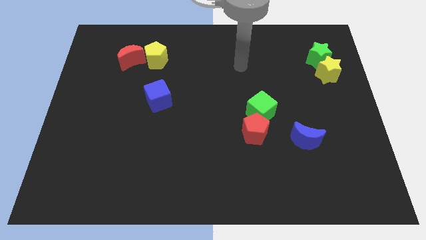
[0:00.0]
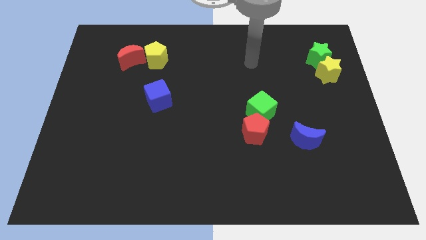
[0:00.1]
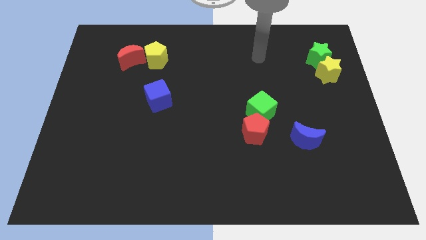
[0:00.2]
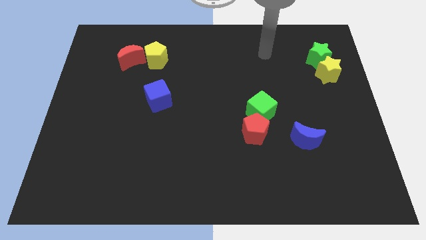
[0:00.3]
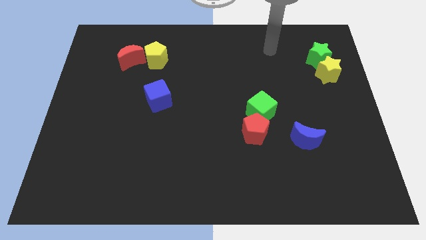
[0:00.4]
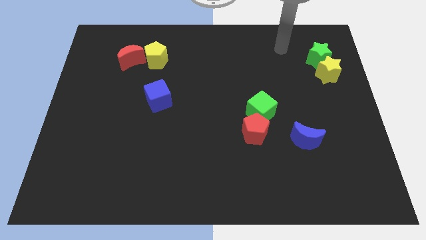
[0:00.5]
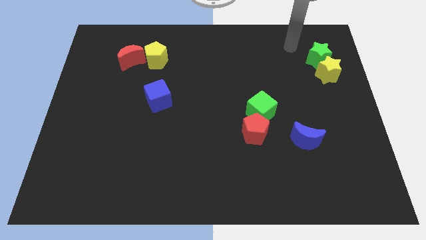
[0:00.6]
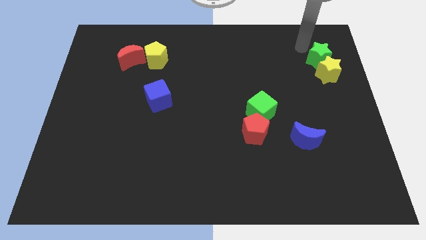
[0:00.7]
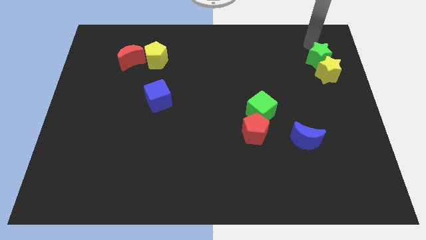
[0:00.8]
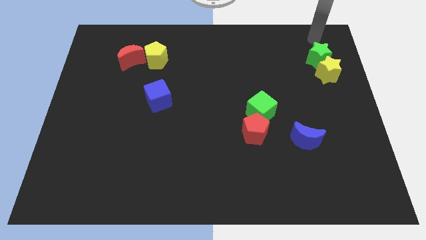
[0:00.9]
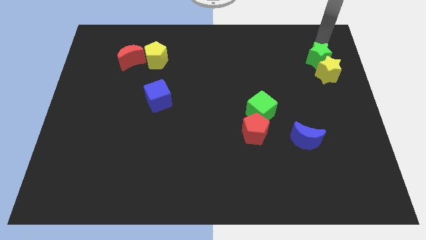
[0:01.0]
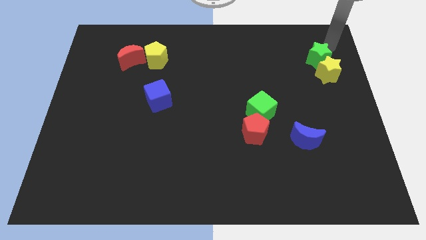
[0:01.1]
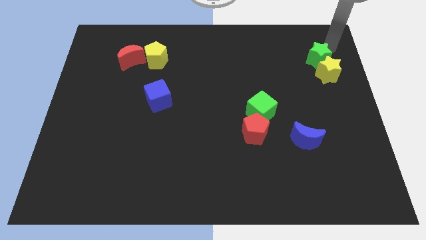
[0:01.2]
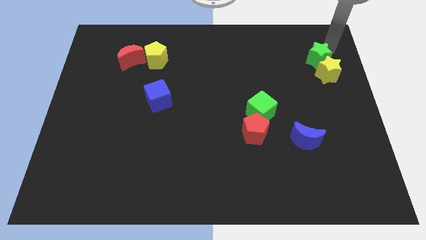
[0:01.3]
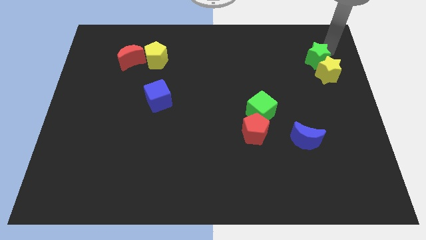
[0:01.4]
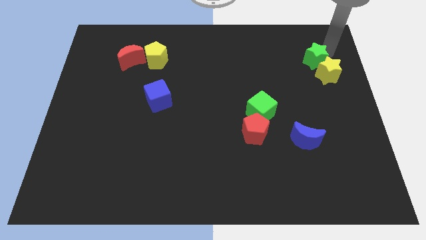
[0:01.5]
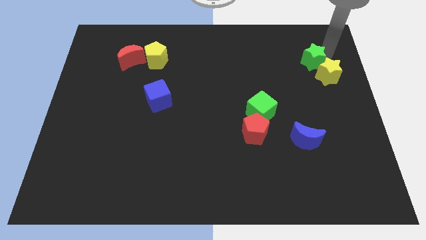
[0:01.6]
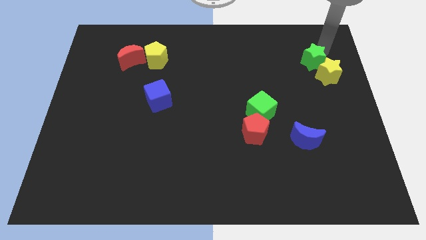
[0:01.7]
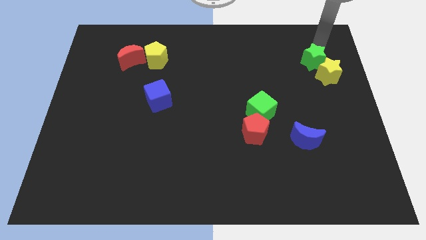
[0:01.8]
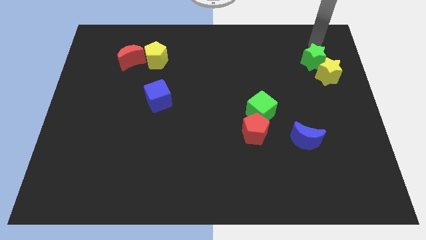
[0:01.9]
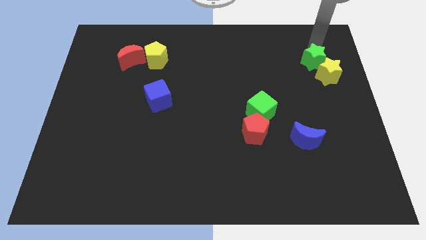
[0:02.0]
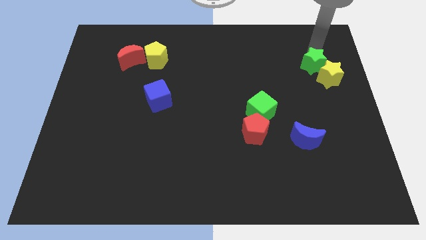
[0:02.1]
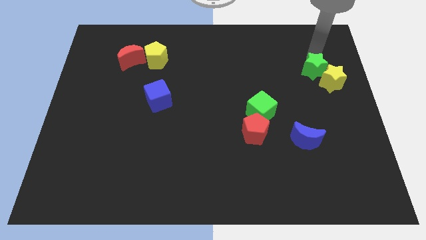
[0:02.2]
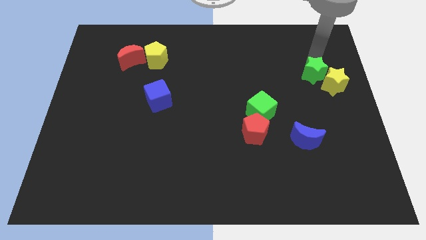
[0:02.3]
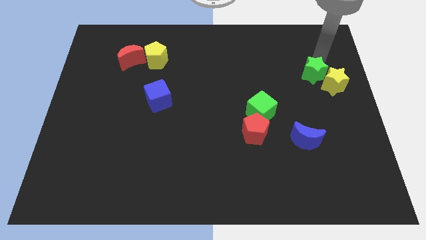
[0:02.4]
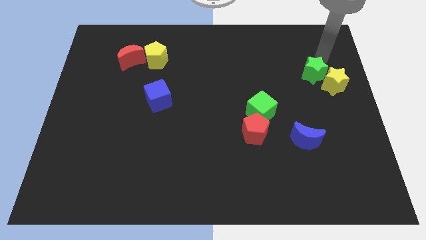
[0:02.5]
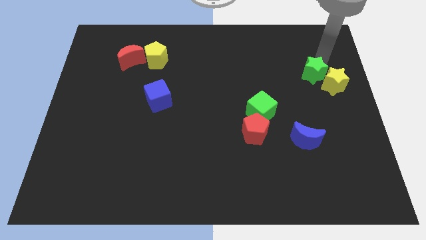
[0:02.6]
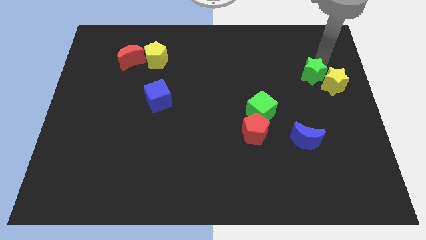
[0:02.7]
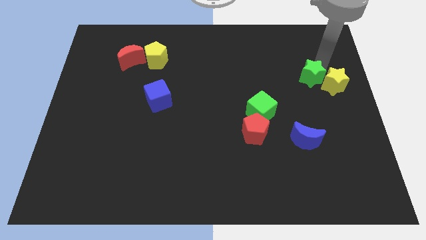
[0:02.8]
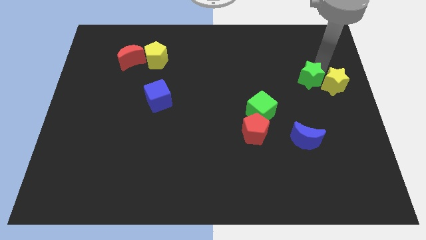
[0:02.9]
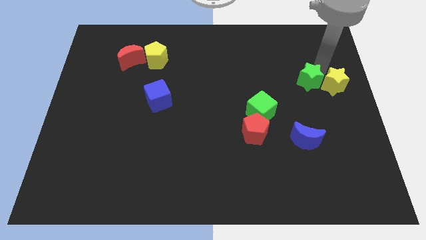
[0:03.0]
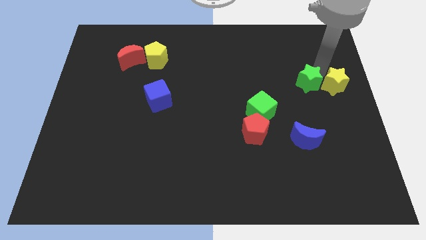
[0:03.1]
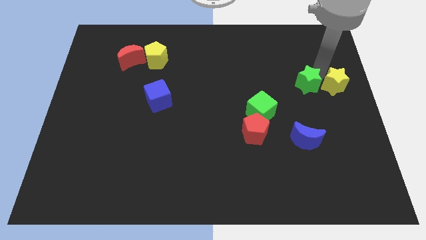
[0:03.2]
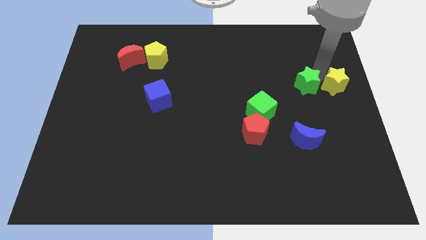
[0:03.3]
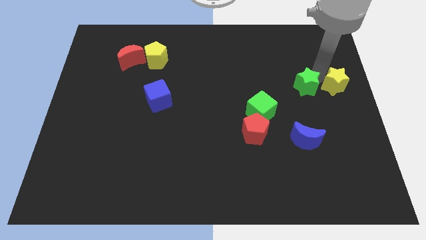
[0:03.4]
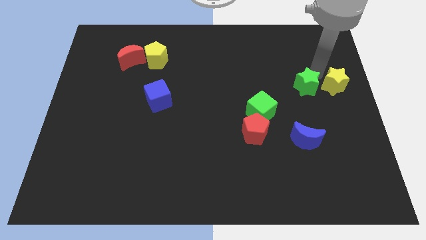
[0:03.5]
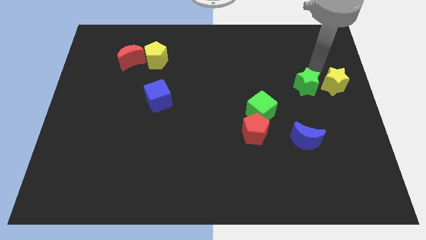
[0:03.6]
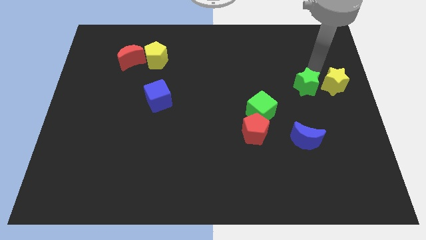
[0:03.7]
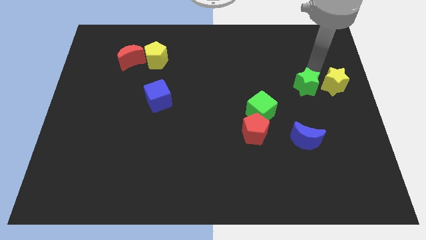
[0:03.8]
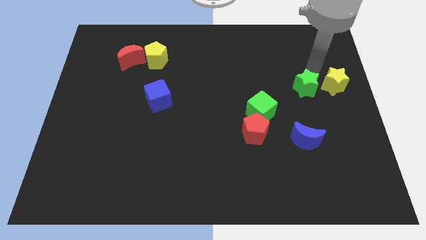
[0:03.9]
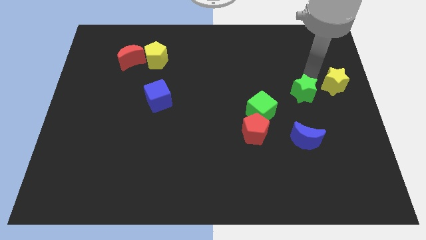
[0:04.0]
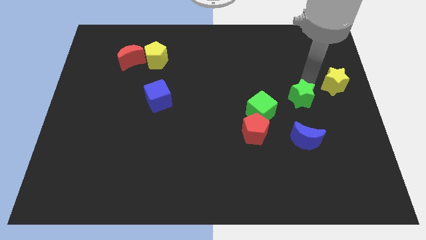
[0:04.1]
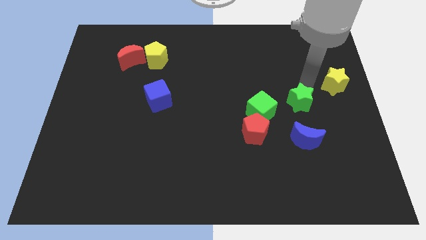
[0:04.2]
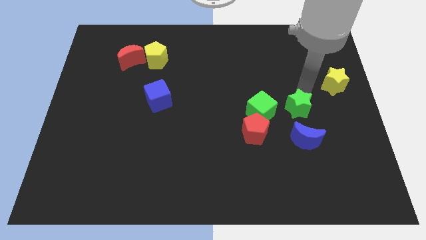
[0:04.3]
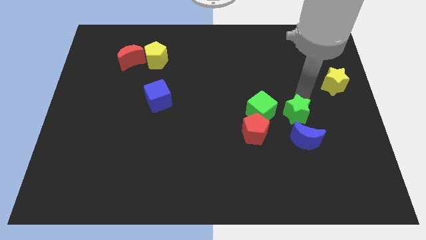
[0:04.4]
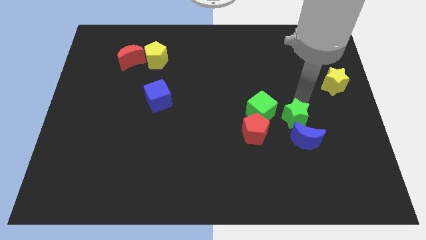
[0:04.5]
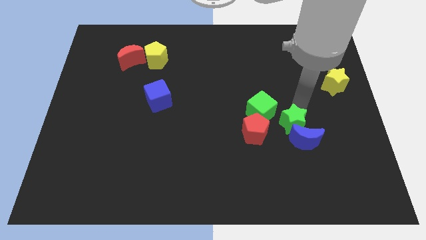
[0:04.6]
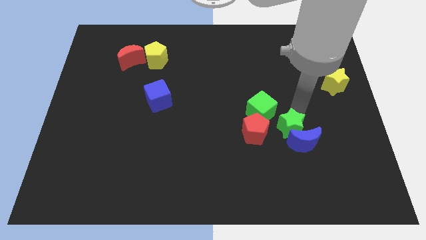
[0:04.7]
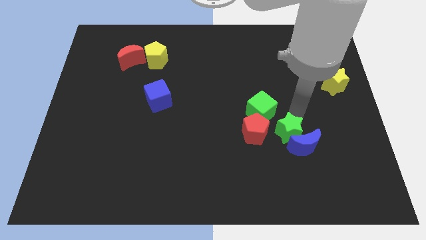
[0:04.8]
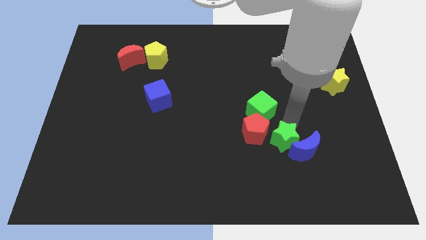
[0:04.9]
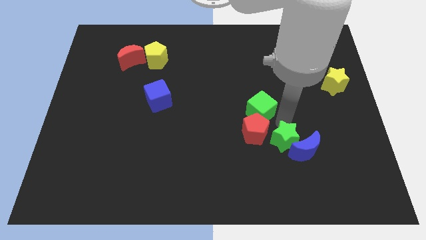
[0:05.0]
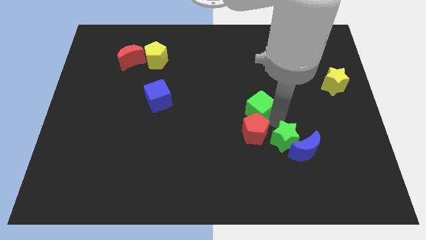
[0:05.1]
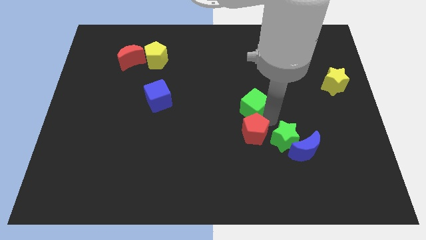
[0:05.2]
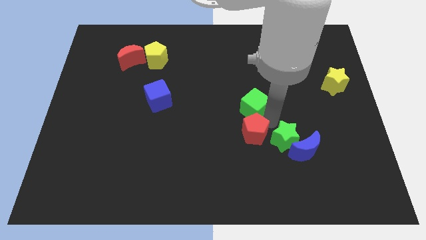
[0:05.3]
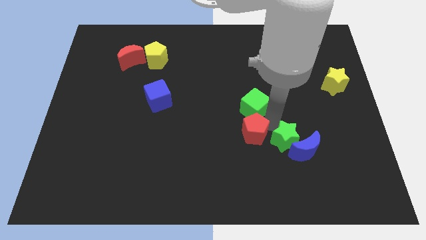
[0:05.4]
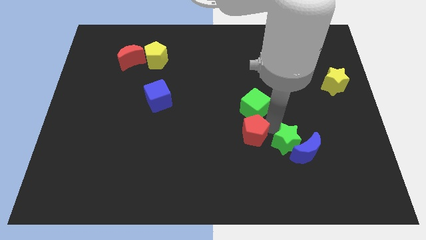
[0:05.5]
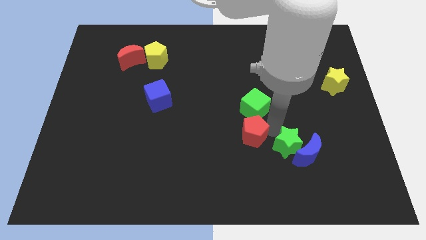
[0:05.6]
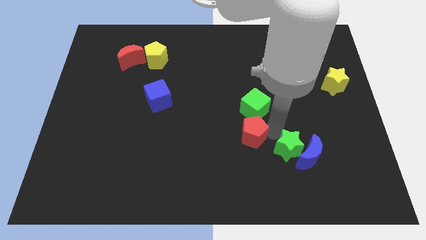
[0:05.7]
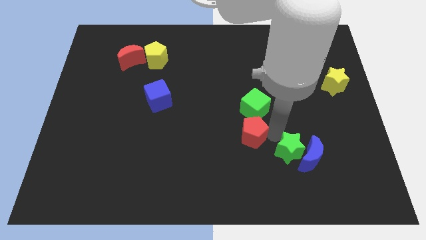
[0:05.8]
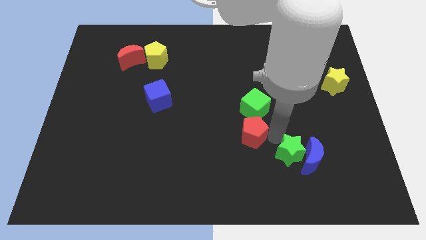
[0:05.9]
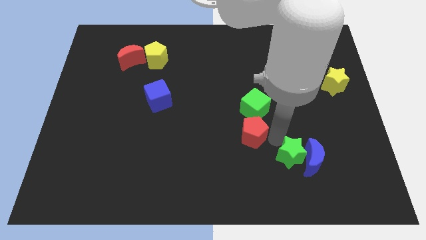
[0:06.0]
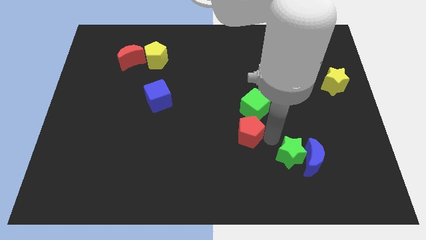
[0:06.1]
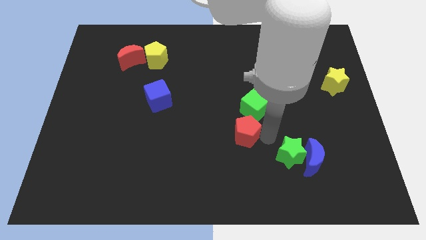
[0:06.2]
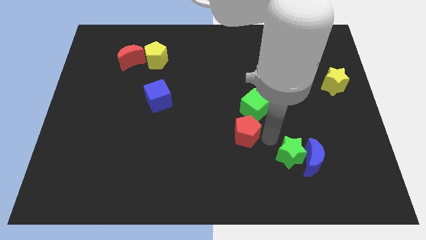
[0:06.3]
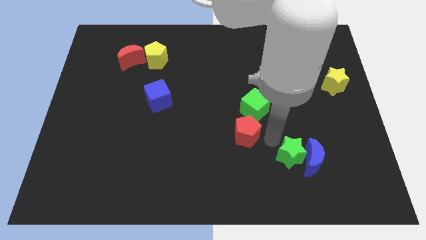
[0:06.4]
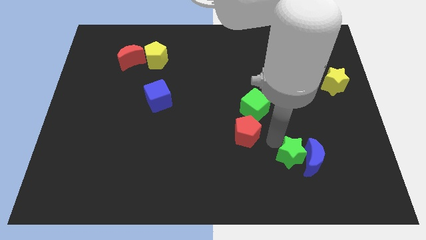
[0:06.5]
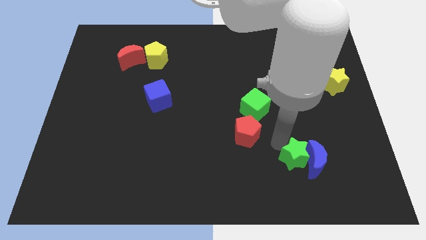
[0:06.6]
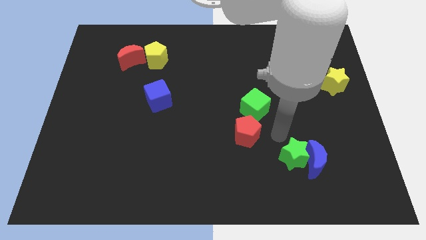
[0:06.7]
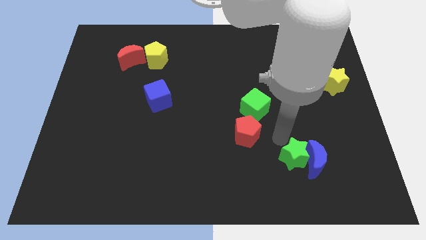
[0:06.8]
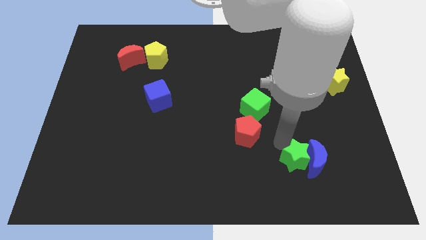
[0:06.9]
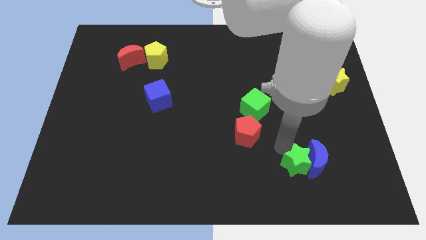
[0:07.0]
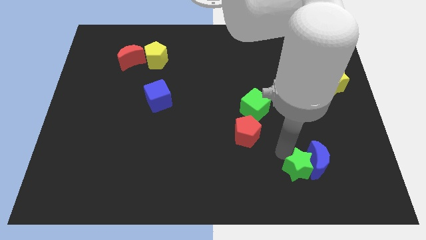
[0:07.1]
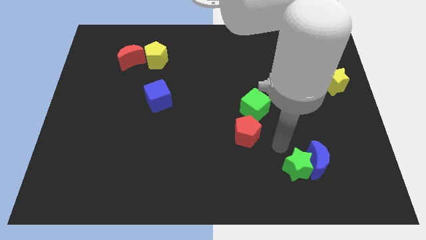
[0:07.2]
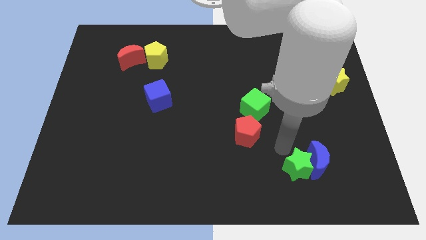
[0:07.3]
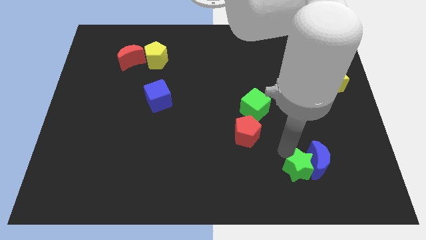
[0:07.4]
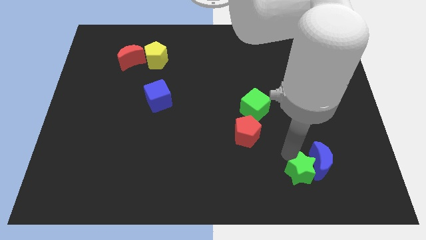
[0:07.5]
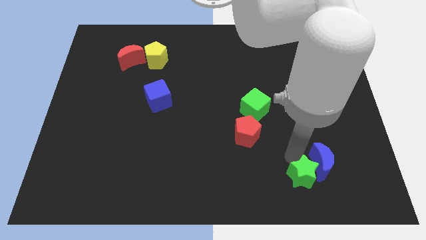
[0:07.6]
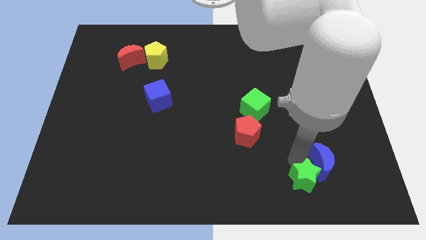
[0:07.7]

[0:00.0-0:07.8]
push the green star to the bottom side of the blue moon
